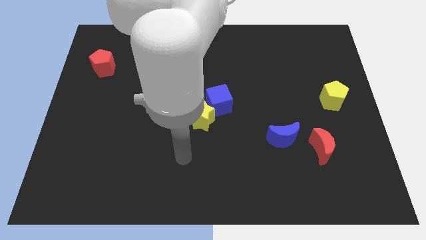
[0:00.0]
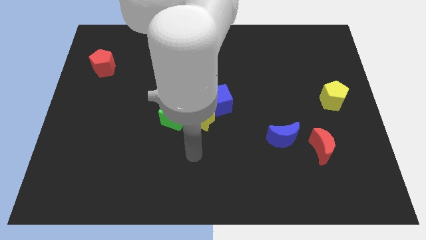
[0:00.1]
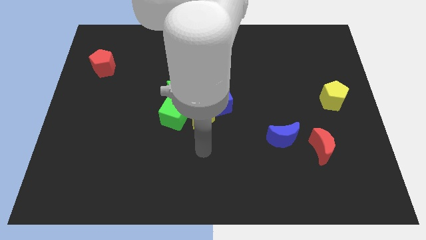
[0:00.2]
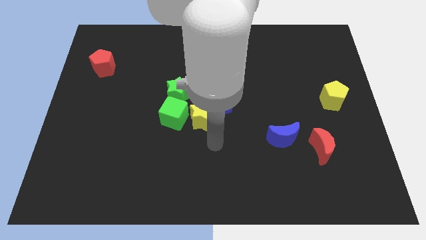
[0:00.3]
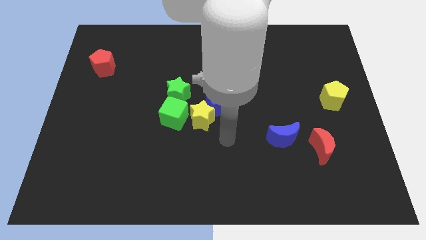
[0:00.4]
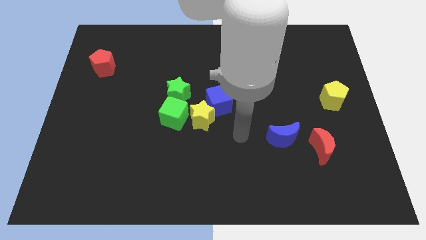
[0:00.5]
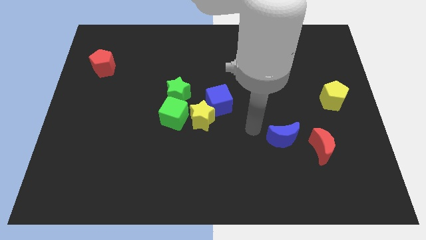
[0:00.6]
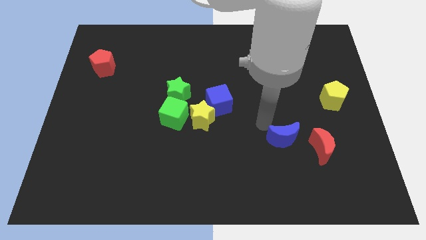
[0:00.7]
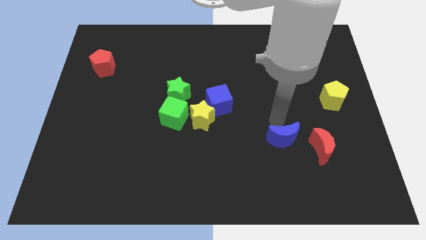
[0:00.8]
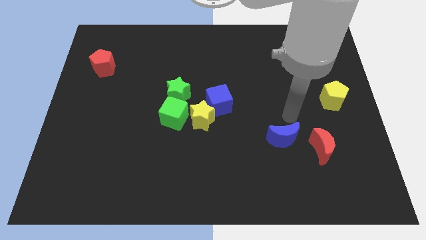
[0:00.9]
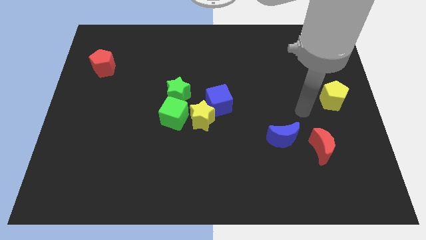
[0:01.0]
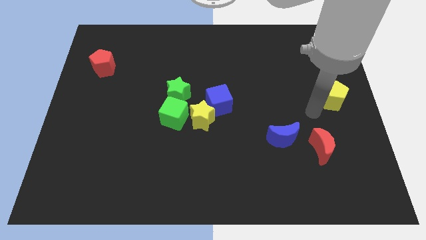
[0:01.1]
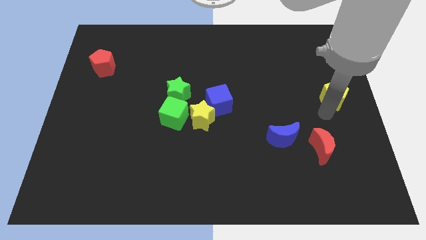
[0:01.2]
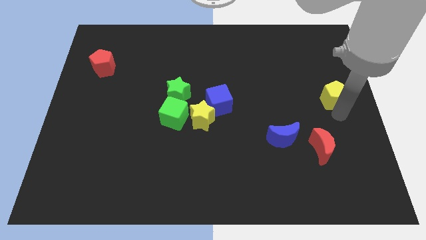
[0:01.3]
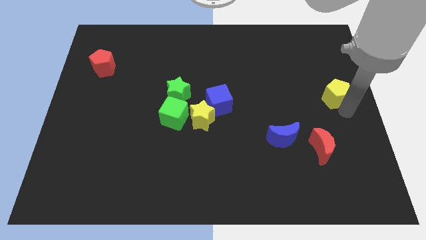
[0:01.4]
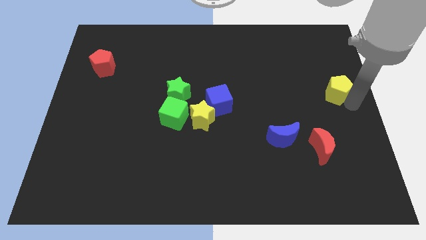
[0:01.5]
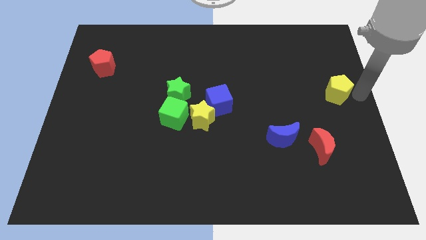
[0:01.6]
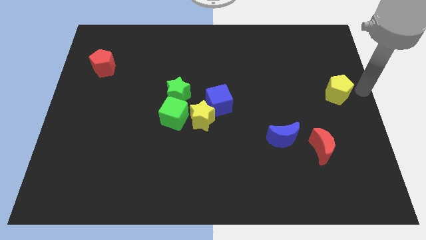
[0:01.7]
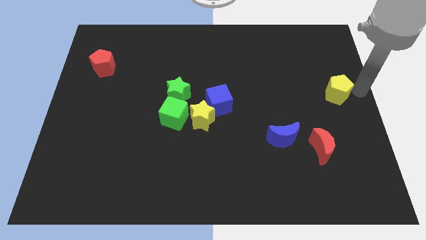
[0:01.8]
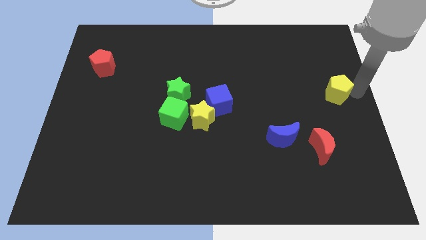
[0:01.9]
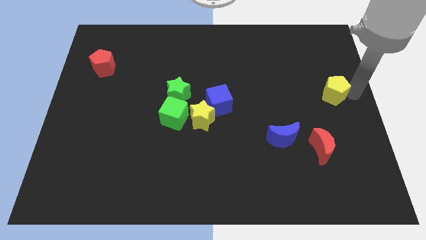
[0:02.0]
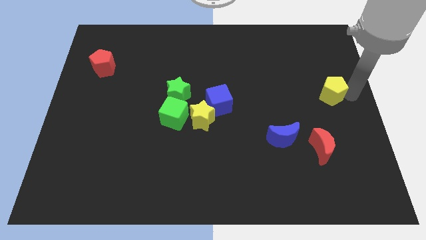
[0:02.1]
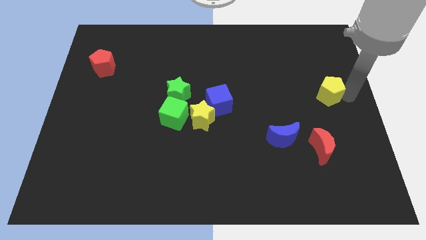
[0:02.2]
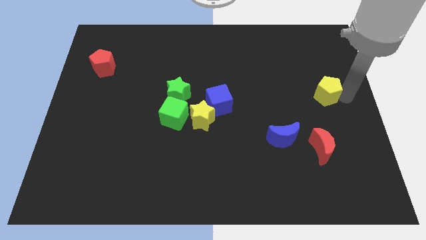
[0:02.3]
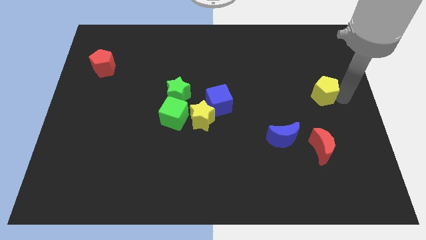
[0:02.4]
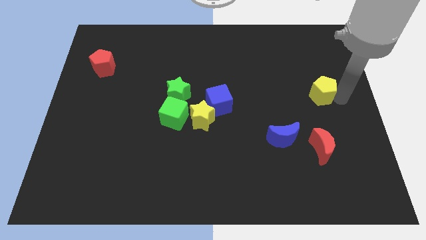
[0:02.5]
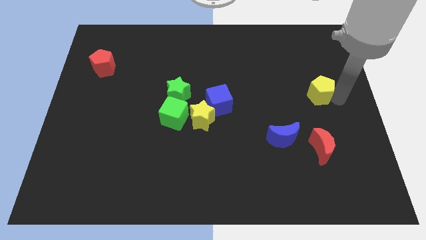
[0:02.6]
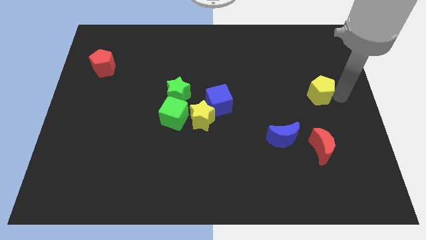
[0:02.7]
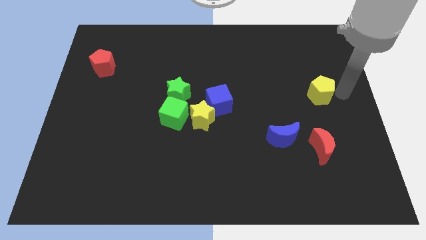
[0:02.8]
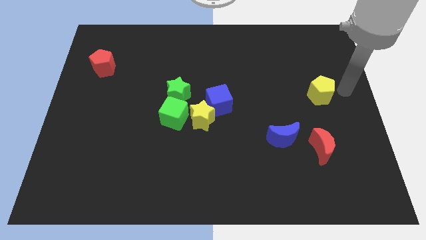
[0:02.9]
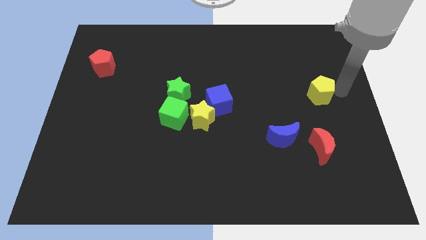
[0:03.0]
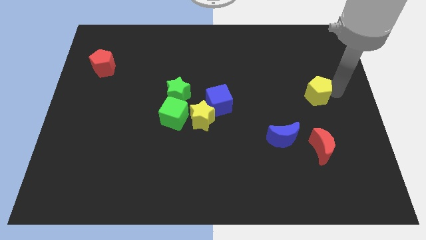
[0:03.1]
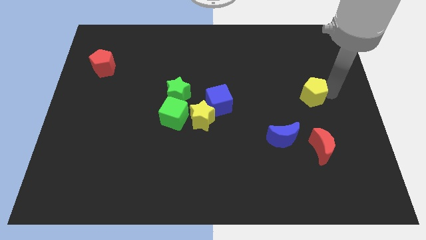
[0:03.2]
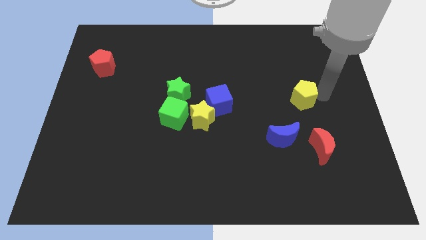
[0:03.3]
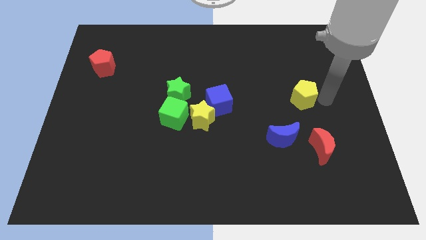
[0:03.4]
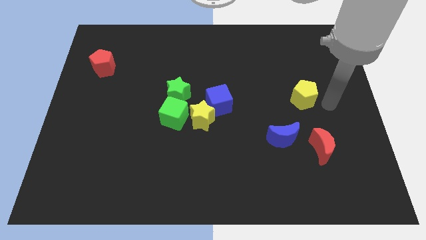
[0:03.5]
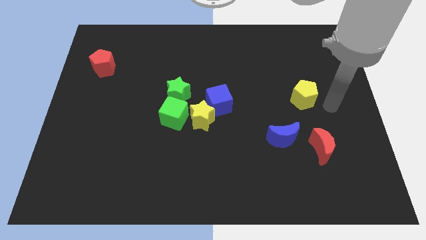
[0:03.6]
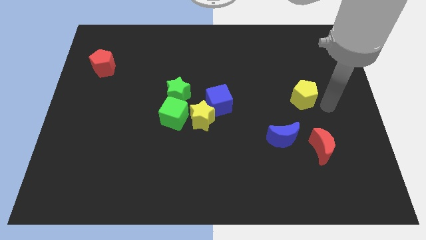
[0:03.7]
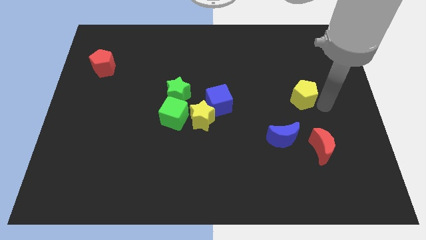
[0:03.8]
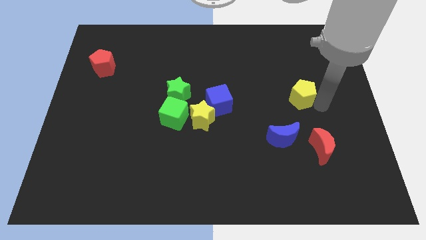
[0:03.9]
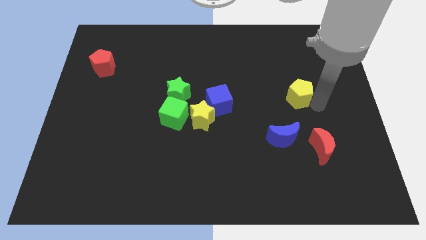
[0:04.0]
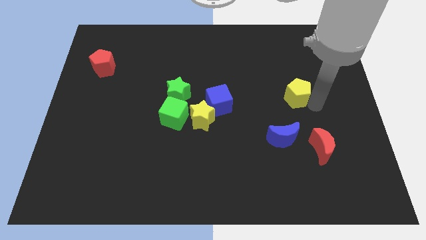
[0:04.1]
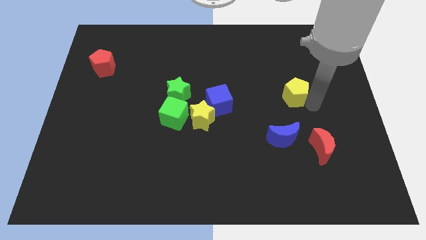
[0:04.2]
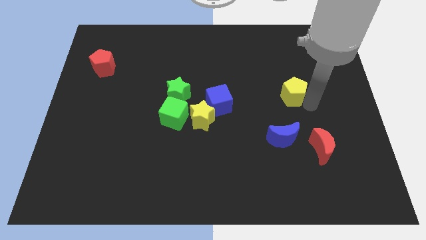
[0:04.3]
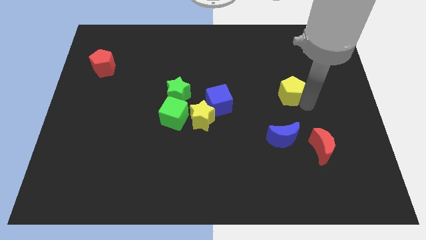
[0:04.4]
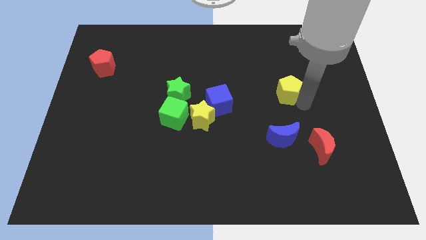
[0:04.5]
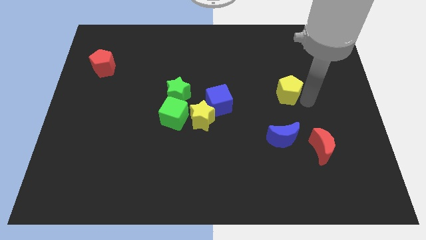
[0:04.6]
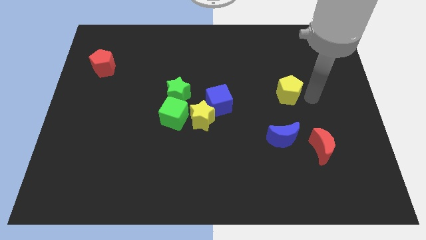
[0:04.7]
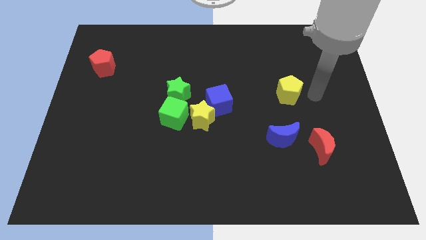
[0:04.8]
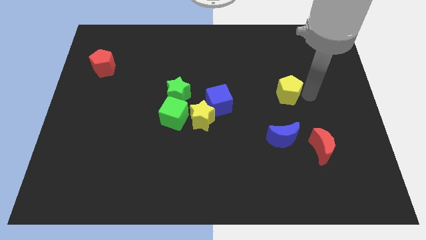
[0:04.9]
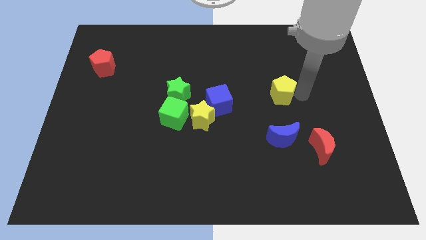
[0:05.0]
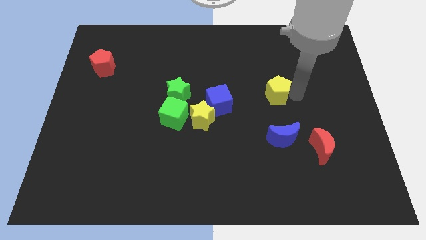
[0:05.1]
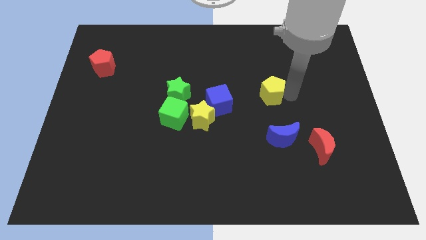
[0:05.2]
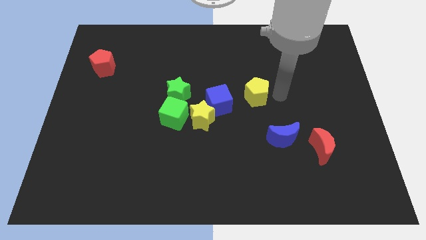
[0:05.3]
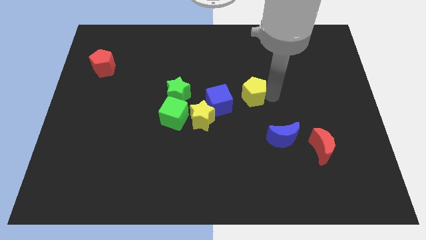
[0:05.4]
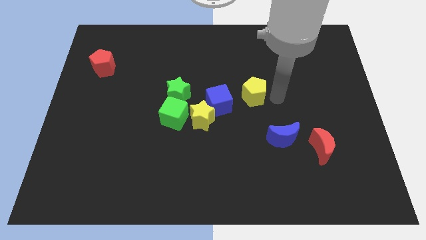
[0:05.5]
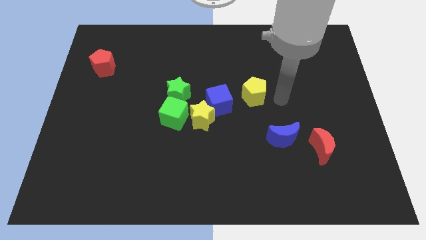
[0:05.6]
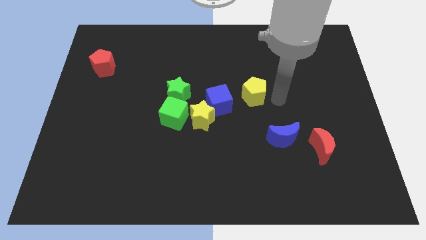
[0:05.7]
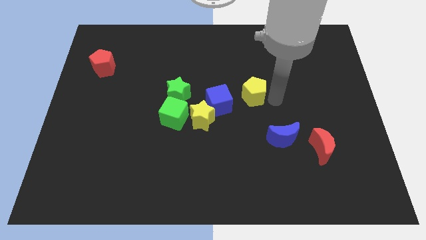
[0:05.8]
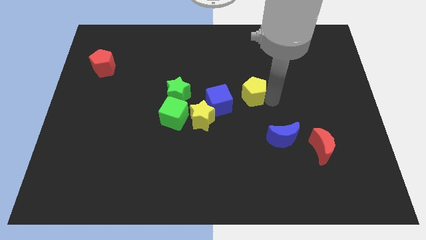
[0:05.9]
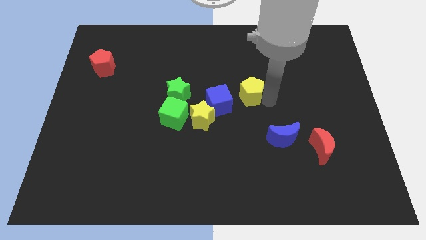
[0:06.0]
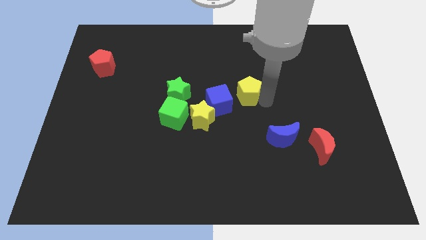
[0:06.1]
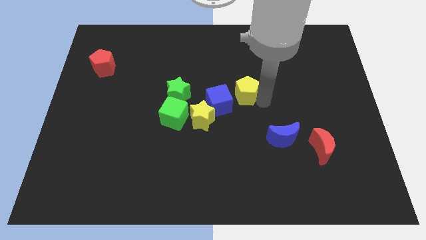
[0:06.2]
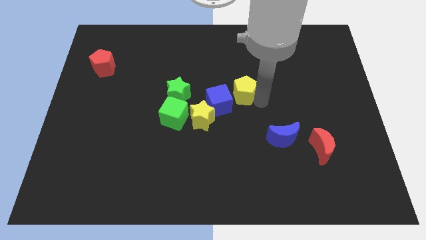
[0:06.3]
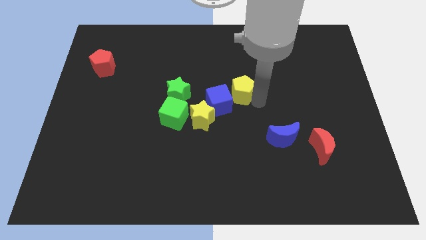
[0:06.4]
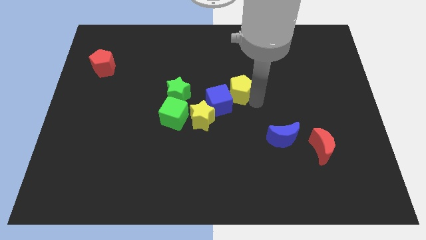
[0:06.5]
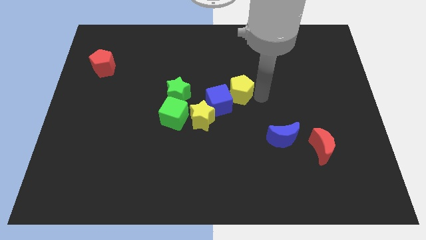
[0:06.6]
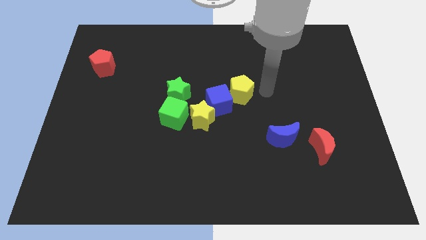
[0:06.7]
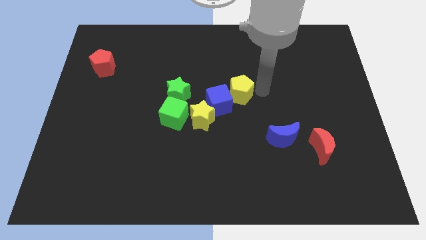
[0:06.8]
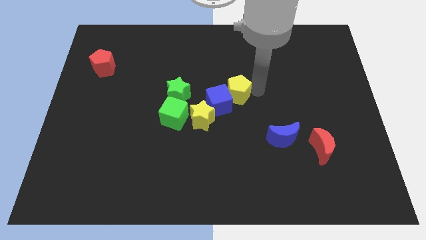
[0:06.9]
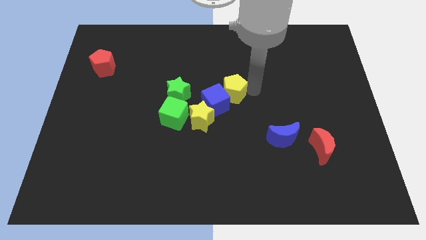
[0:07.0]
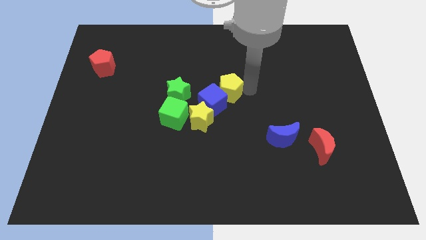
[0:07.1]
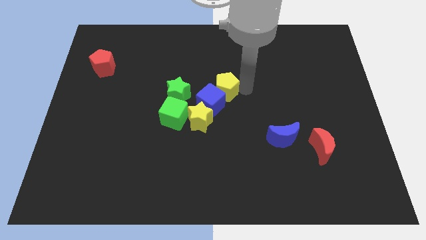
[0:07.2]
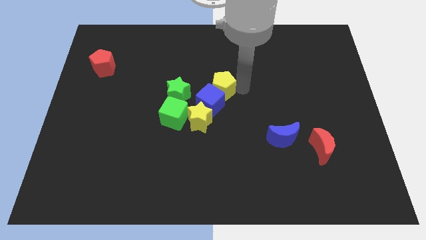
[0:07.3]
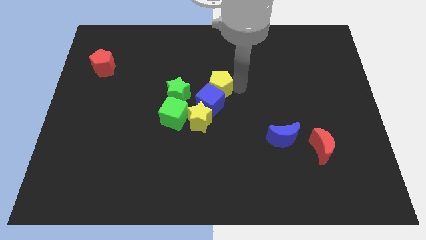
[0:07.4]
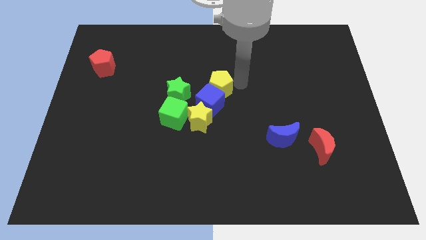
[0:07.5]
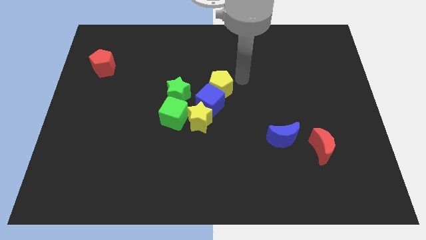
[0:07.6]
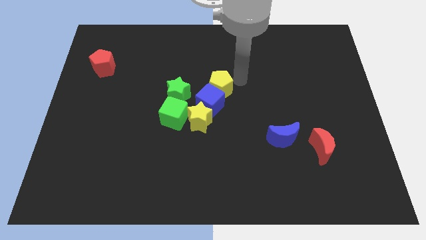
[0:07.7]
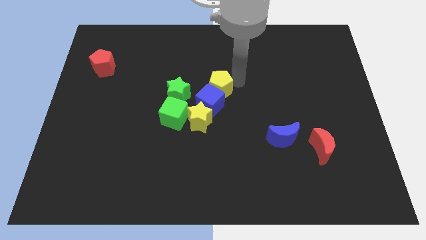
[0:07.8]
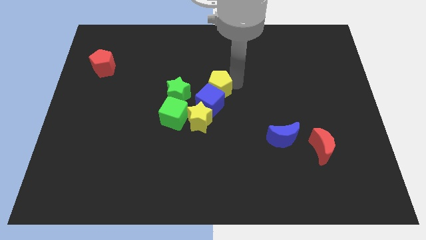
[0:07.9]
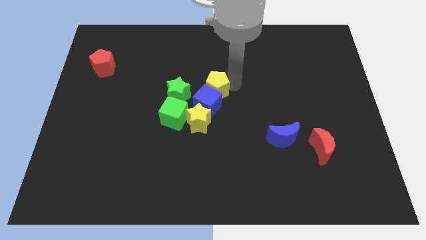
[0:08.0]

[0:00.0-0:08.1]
move the yellow pentagon diagonally up and to the right of the green cube
